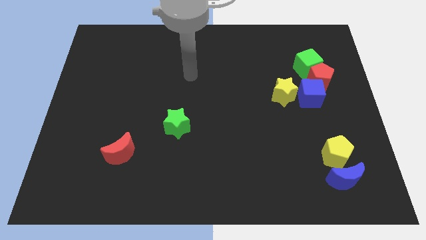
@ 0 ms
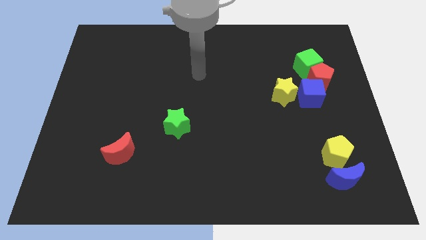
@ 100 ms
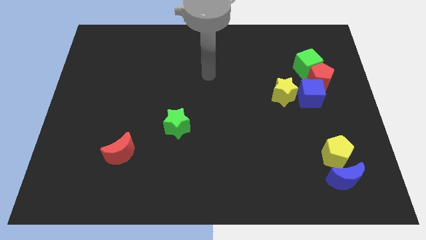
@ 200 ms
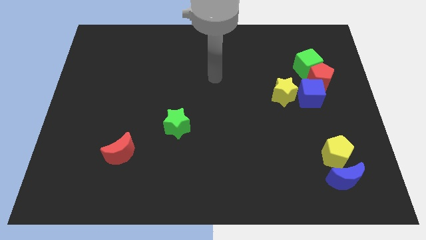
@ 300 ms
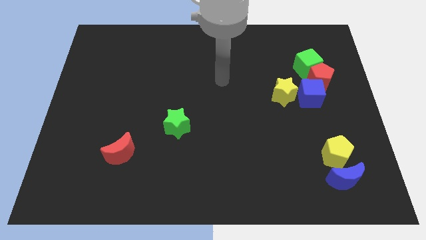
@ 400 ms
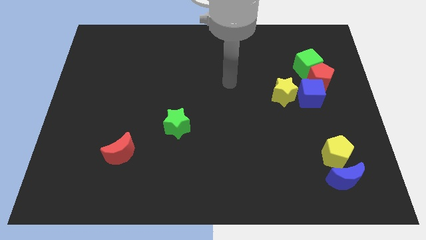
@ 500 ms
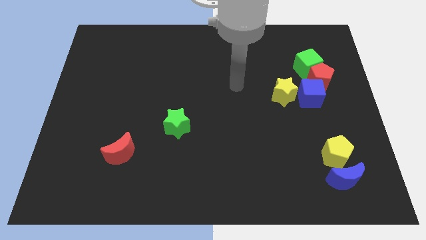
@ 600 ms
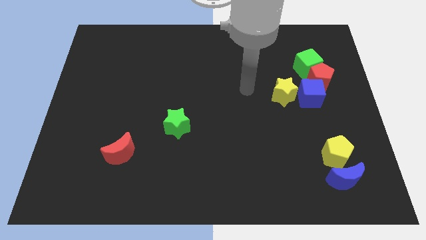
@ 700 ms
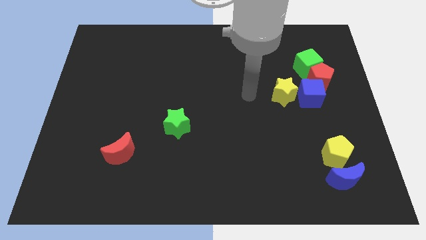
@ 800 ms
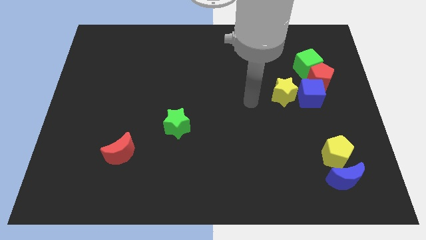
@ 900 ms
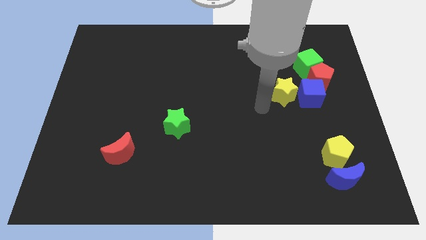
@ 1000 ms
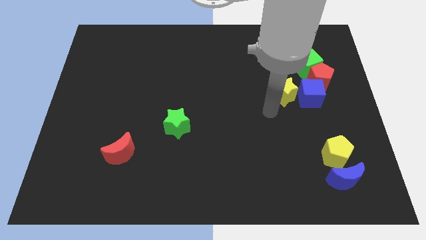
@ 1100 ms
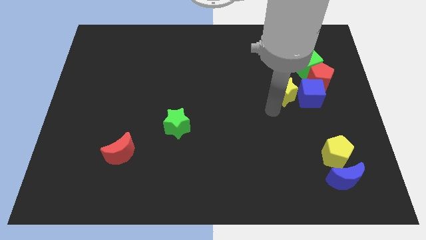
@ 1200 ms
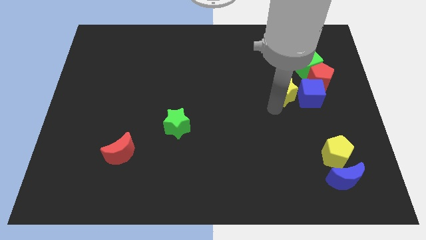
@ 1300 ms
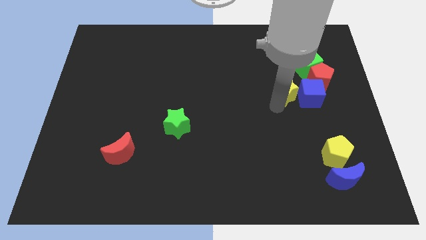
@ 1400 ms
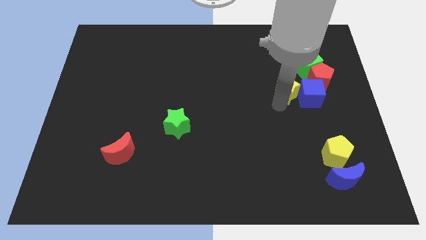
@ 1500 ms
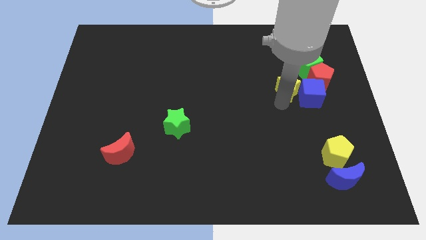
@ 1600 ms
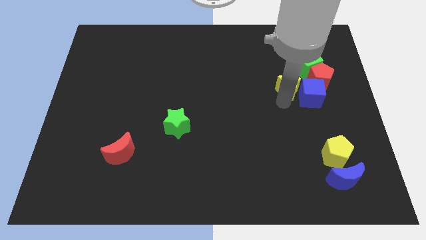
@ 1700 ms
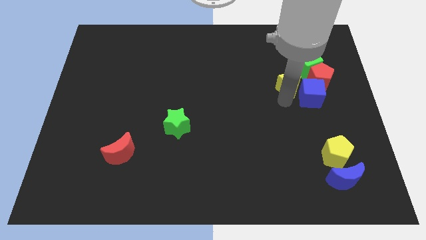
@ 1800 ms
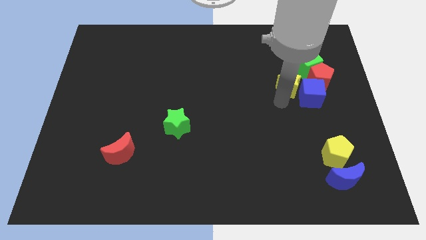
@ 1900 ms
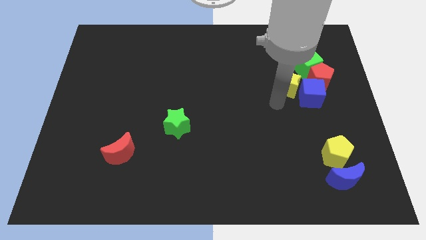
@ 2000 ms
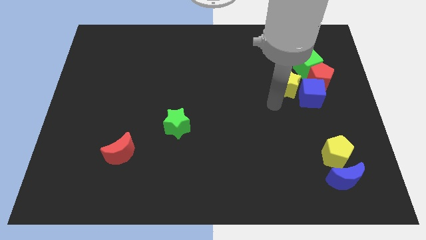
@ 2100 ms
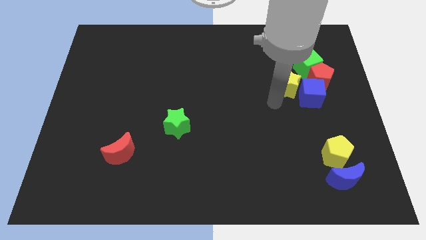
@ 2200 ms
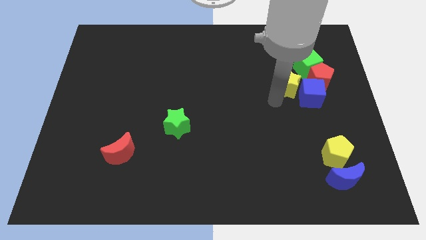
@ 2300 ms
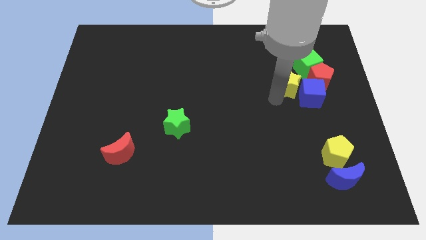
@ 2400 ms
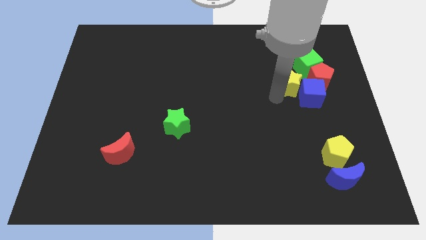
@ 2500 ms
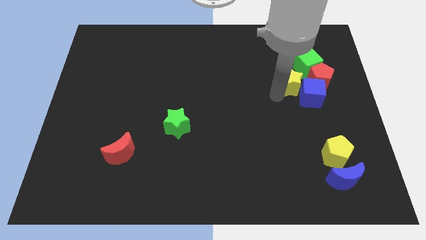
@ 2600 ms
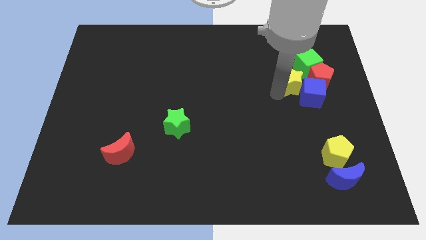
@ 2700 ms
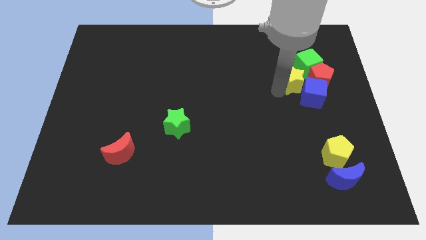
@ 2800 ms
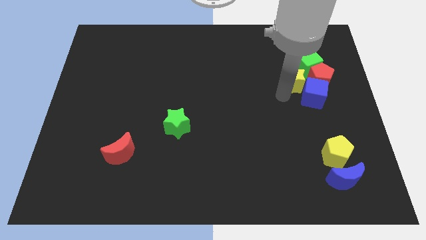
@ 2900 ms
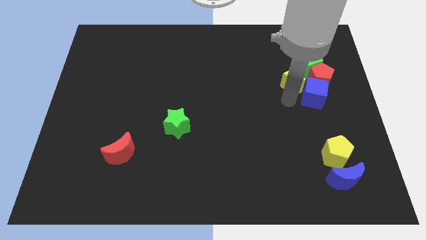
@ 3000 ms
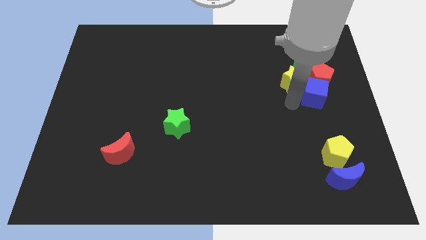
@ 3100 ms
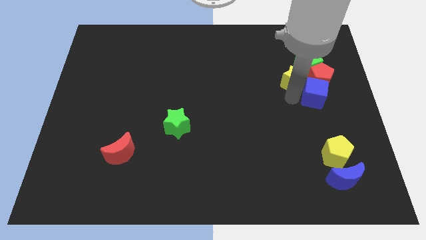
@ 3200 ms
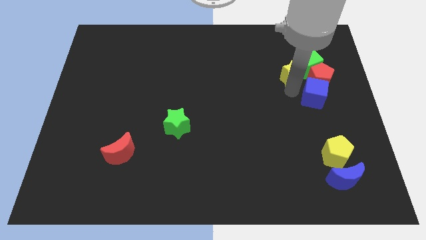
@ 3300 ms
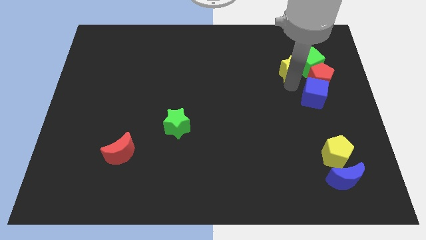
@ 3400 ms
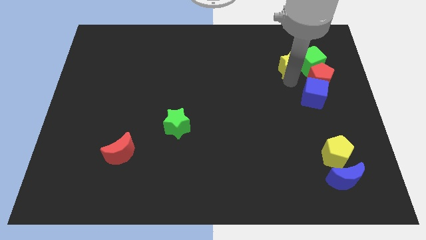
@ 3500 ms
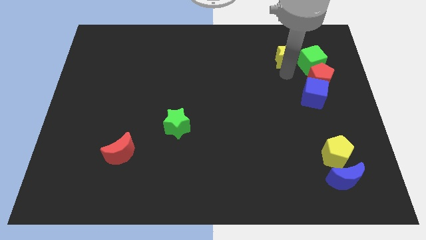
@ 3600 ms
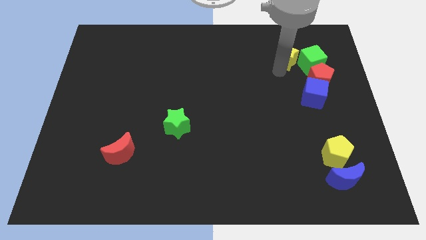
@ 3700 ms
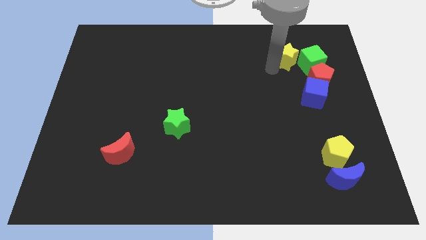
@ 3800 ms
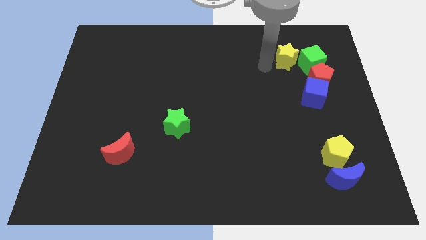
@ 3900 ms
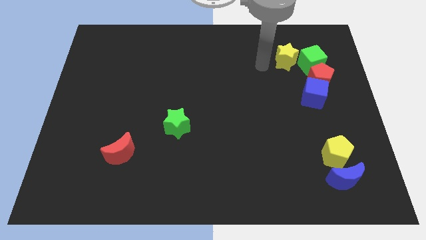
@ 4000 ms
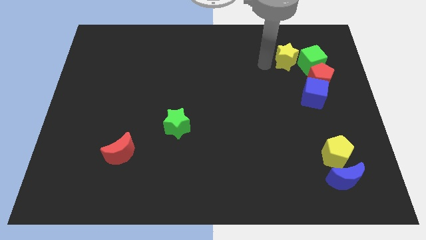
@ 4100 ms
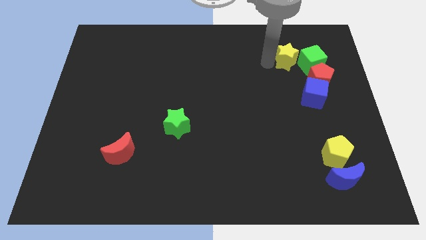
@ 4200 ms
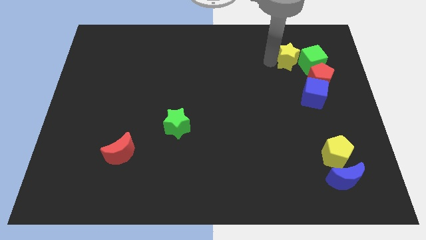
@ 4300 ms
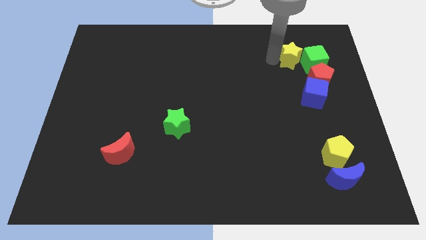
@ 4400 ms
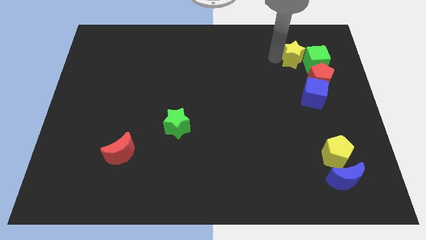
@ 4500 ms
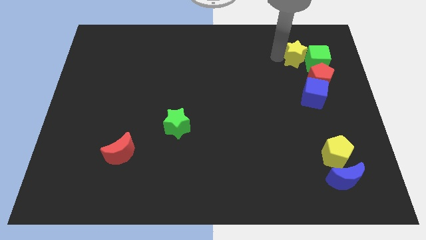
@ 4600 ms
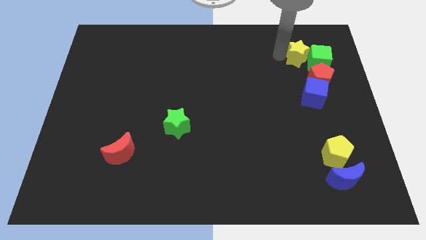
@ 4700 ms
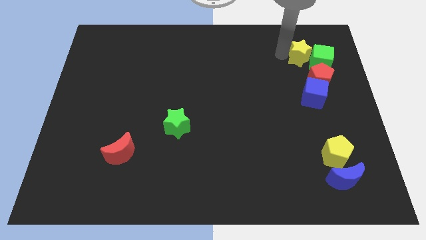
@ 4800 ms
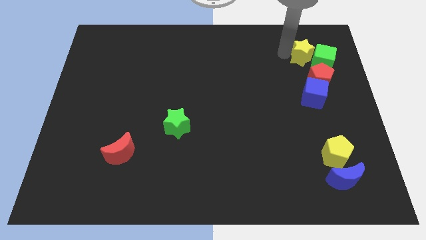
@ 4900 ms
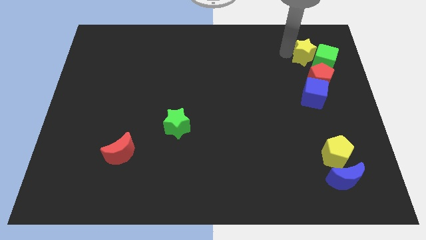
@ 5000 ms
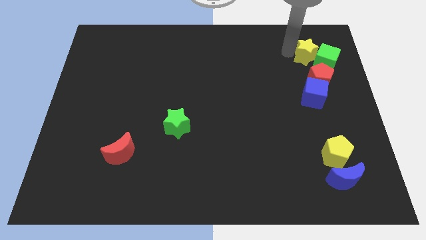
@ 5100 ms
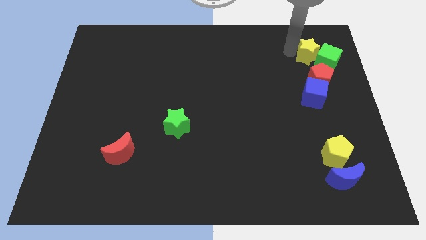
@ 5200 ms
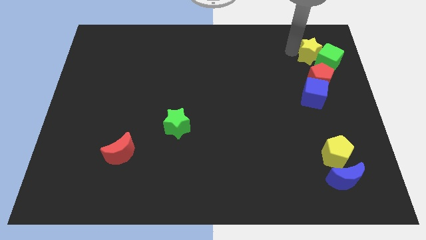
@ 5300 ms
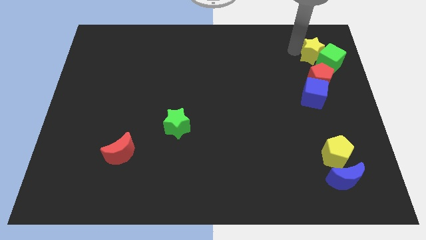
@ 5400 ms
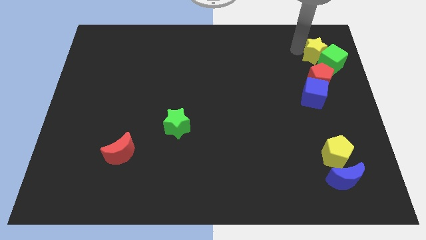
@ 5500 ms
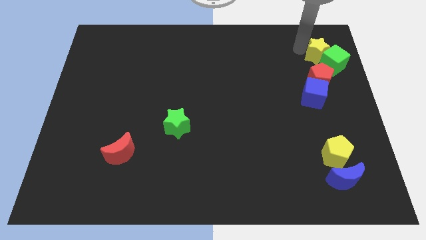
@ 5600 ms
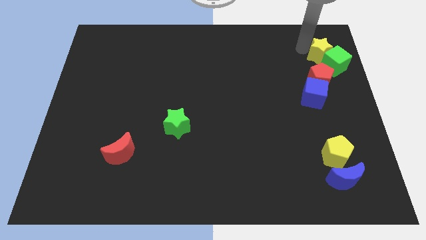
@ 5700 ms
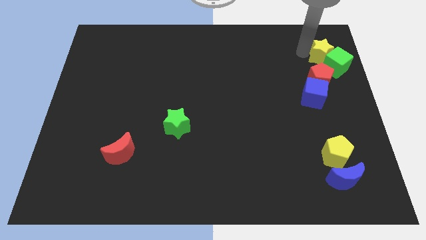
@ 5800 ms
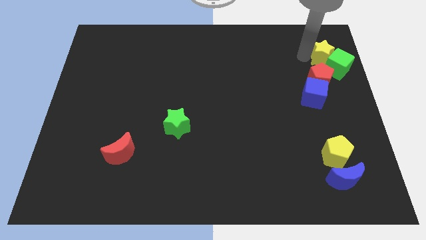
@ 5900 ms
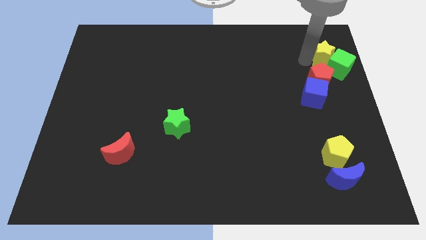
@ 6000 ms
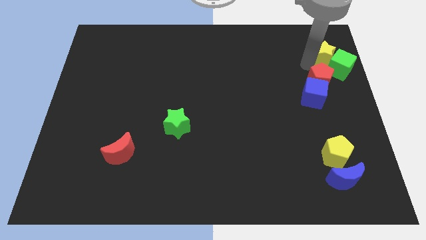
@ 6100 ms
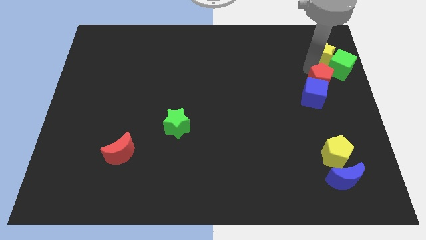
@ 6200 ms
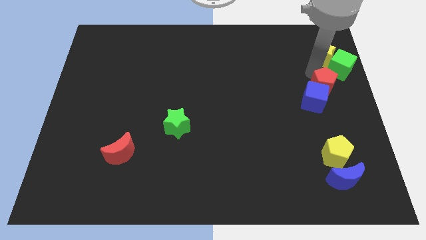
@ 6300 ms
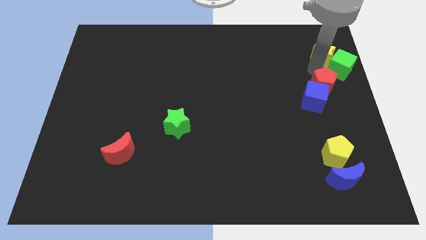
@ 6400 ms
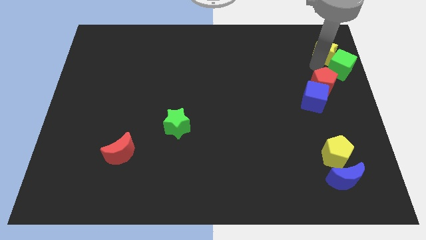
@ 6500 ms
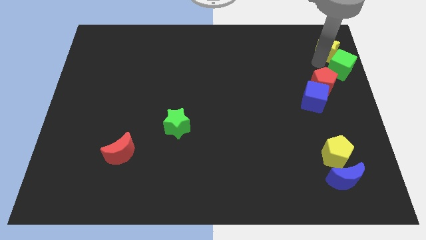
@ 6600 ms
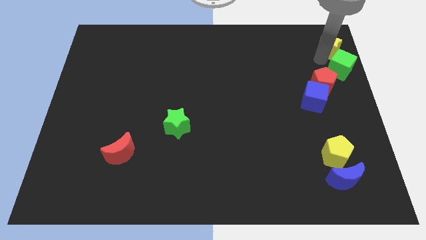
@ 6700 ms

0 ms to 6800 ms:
push the yellow star to the top right of the board
